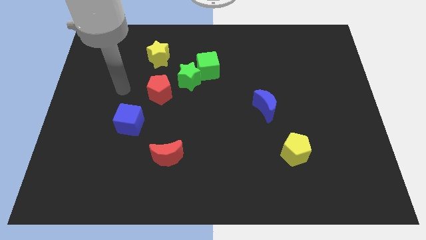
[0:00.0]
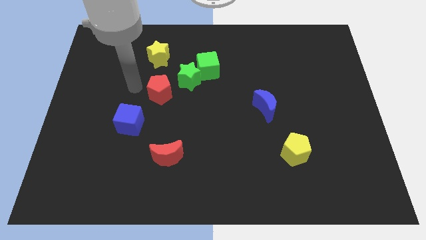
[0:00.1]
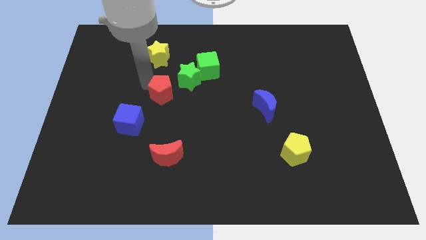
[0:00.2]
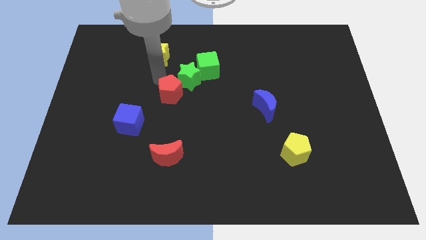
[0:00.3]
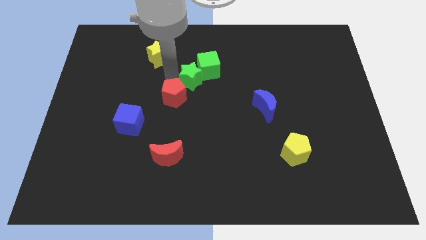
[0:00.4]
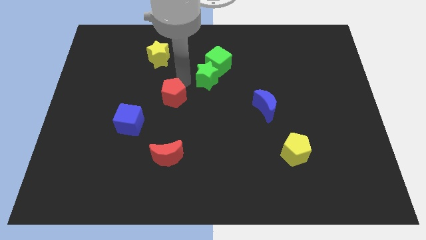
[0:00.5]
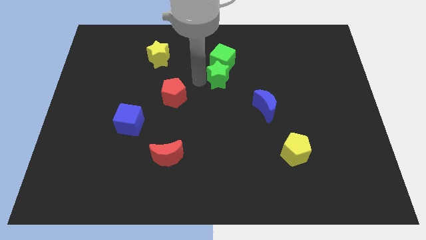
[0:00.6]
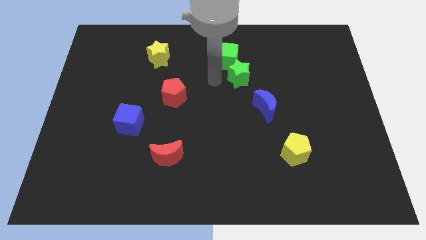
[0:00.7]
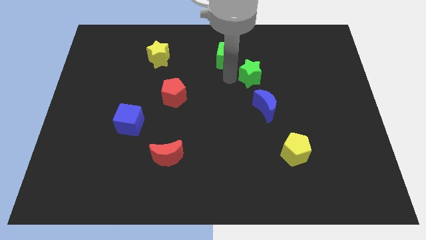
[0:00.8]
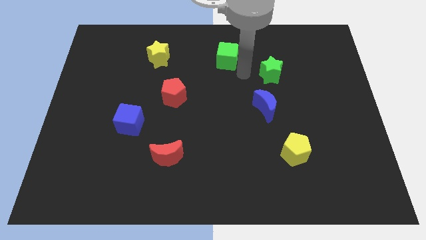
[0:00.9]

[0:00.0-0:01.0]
move the green cube away from the green star

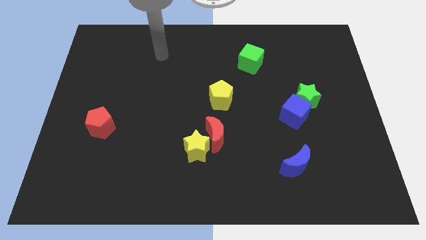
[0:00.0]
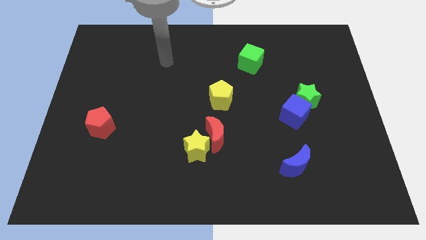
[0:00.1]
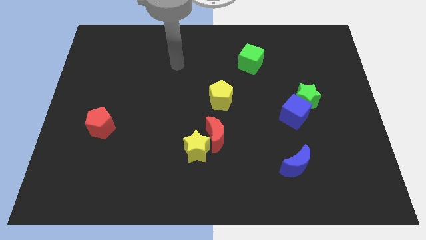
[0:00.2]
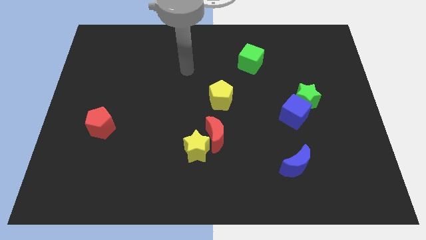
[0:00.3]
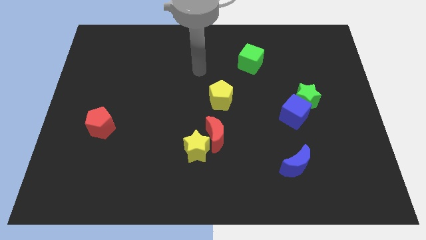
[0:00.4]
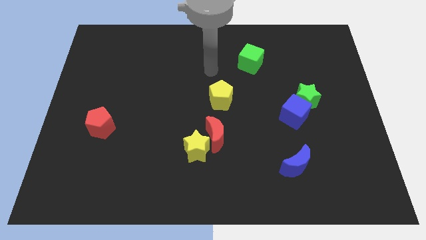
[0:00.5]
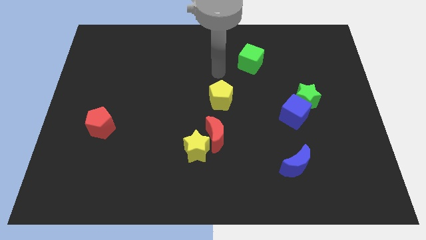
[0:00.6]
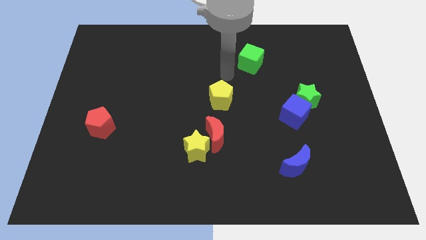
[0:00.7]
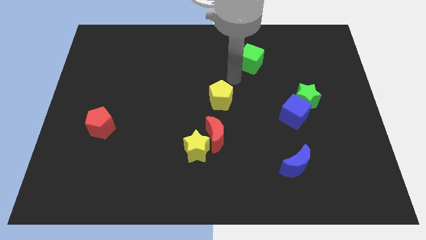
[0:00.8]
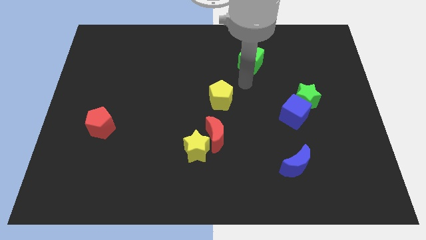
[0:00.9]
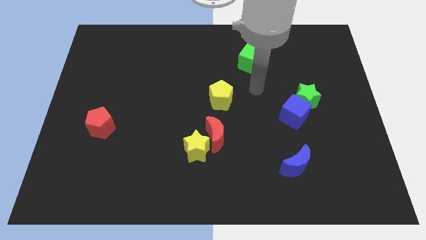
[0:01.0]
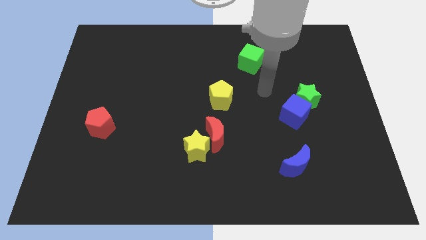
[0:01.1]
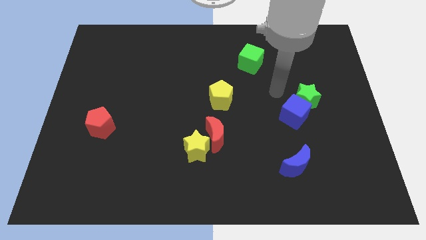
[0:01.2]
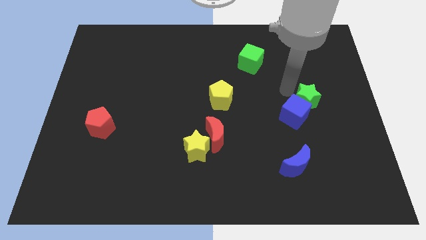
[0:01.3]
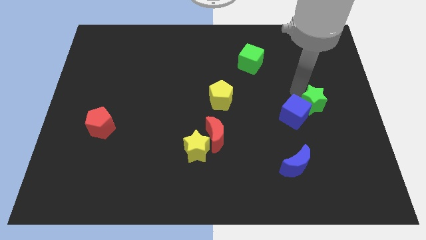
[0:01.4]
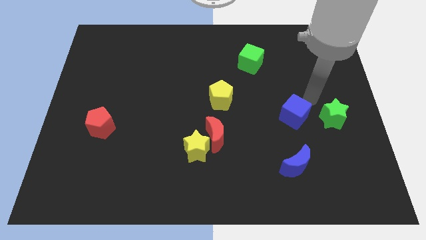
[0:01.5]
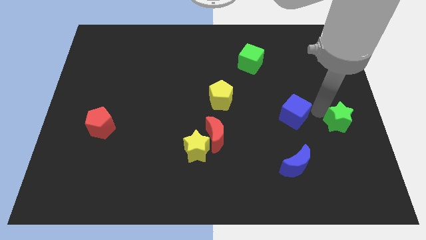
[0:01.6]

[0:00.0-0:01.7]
move the blue cube away from the green star

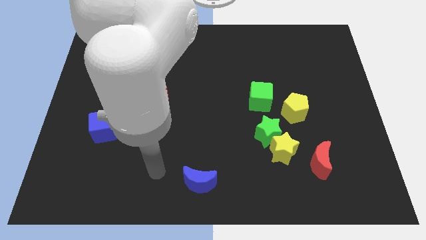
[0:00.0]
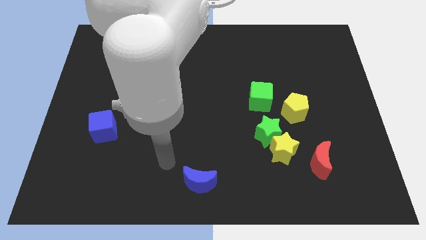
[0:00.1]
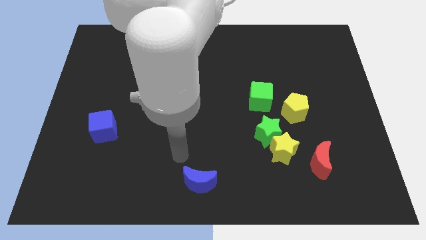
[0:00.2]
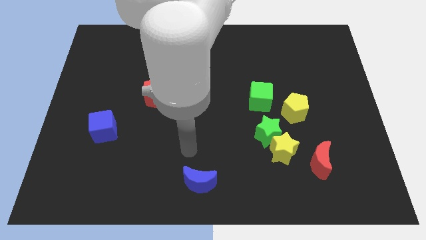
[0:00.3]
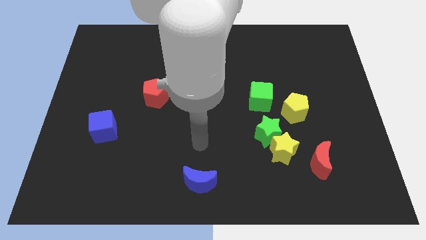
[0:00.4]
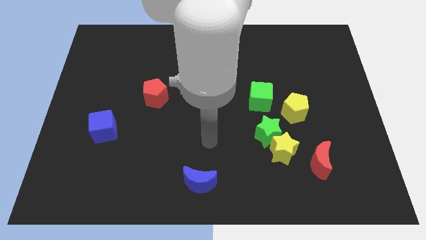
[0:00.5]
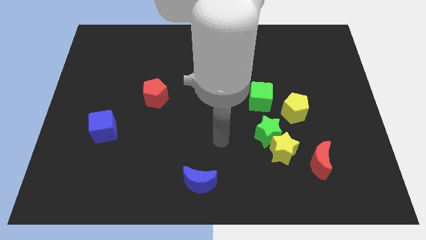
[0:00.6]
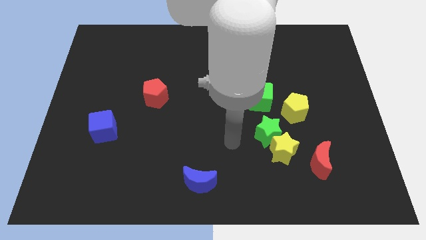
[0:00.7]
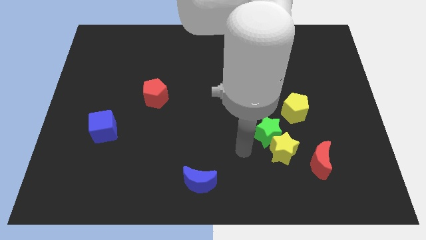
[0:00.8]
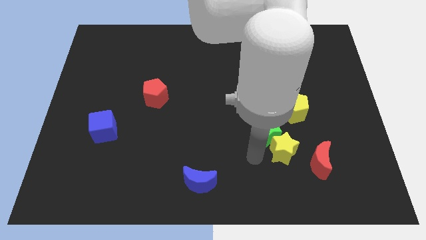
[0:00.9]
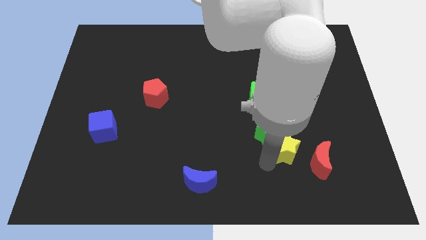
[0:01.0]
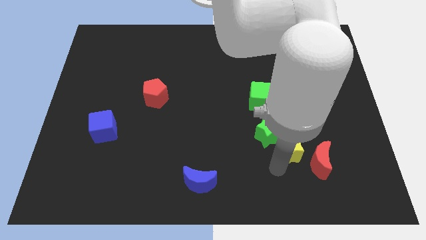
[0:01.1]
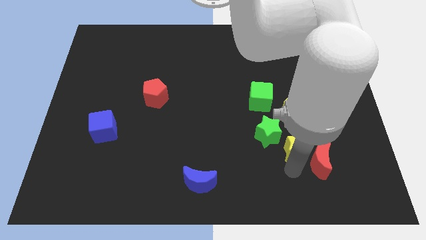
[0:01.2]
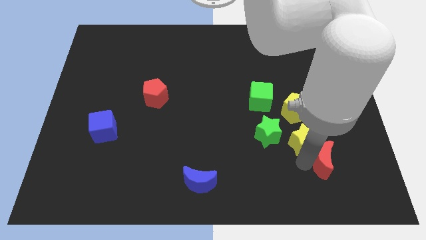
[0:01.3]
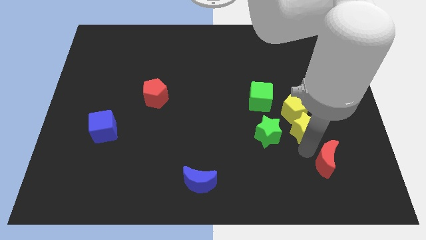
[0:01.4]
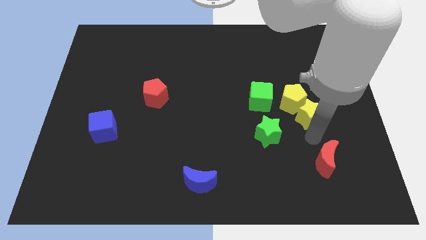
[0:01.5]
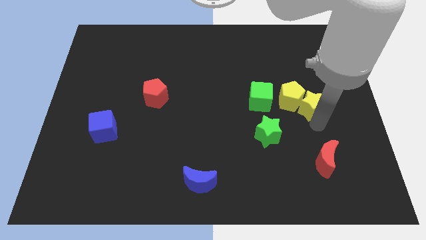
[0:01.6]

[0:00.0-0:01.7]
separate the yellow star from the green star and red moon

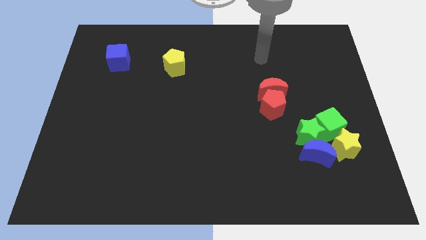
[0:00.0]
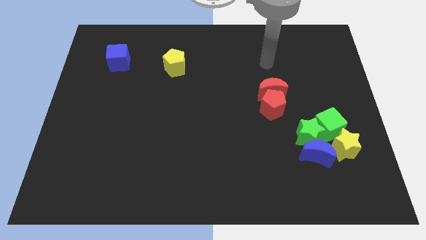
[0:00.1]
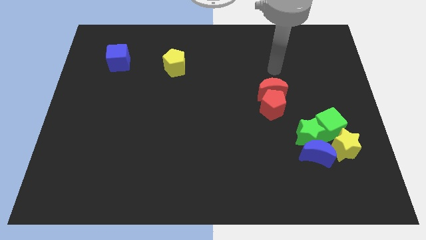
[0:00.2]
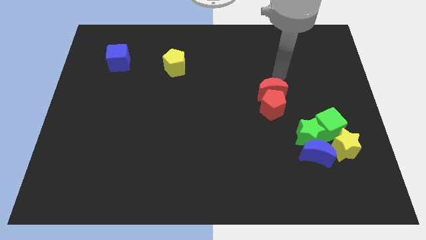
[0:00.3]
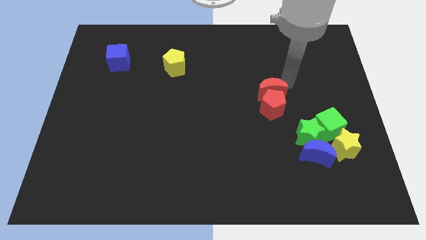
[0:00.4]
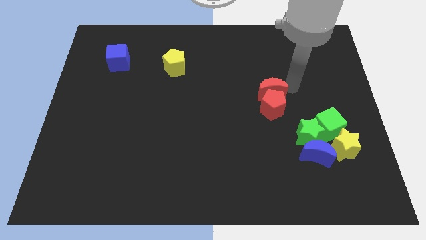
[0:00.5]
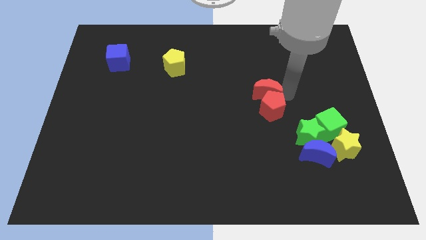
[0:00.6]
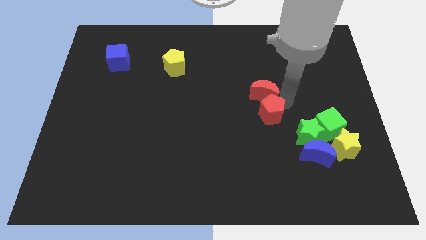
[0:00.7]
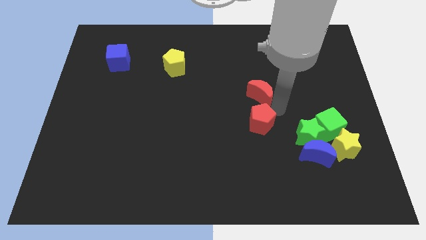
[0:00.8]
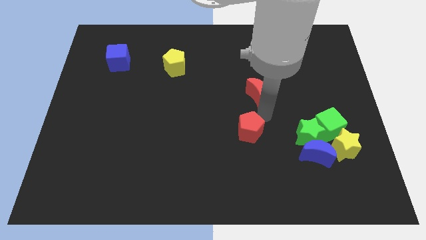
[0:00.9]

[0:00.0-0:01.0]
pull the red moon apart from the red pentagon

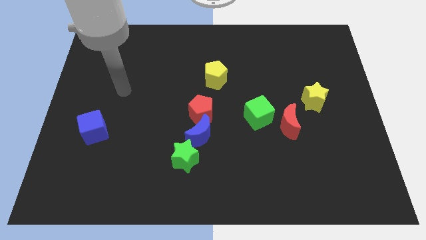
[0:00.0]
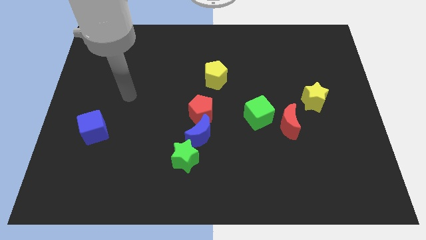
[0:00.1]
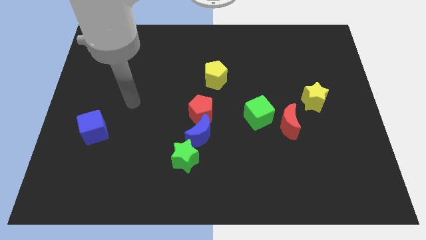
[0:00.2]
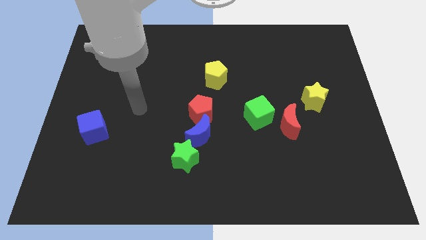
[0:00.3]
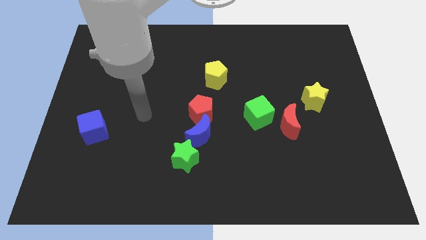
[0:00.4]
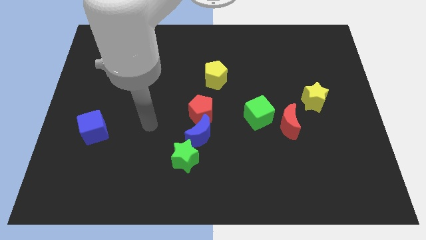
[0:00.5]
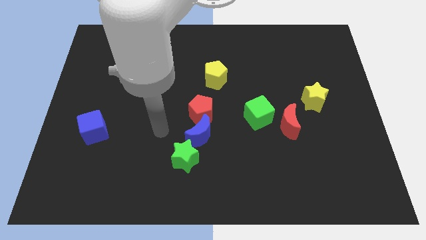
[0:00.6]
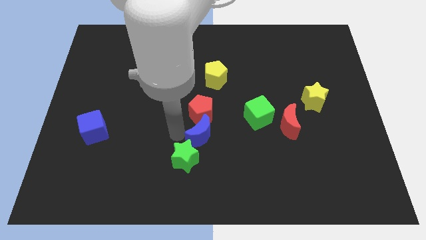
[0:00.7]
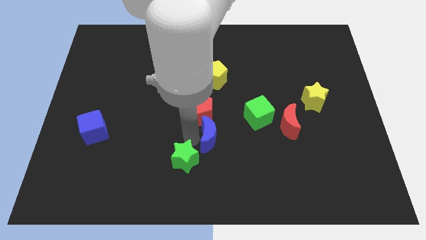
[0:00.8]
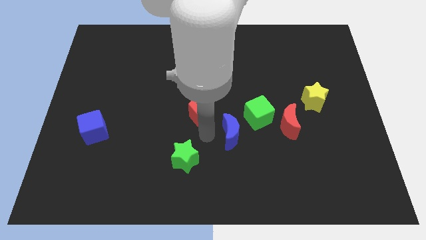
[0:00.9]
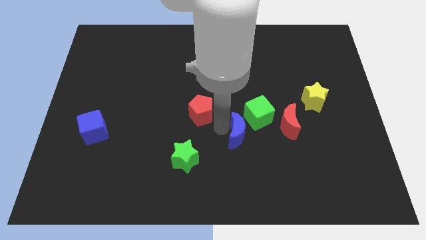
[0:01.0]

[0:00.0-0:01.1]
separate the red pentagon from the blue moon

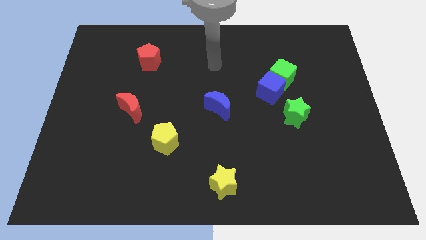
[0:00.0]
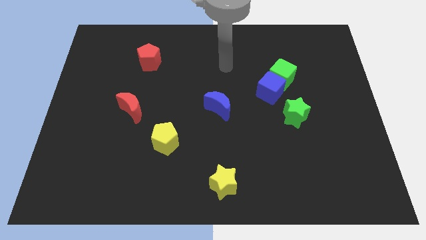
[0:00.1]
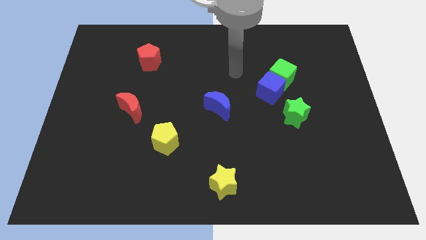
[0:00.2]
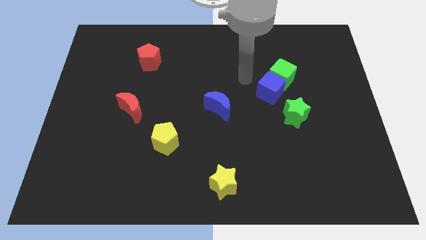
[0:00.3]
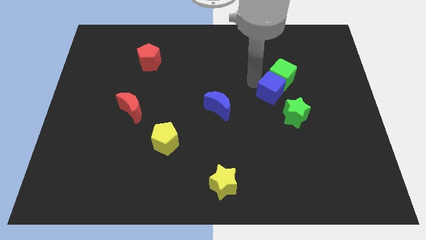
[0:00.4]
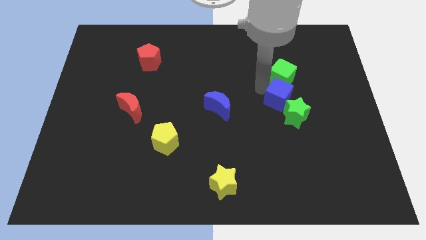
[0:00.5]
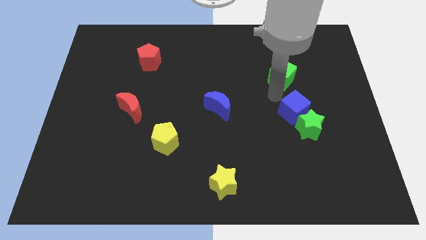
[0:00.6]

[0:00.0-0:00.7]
pull the green cube apart from the blue cube

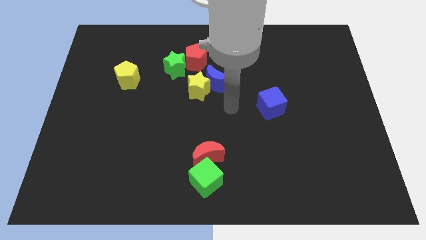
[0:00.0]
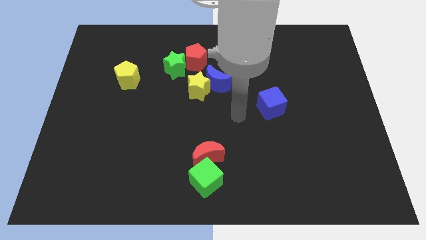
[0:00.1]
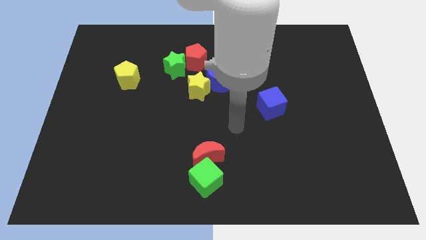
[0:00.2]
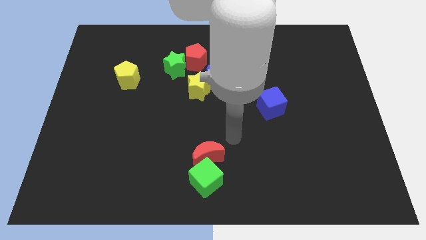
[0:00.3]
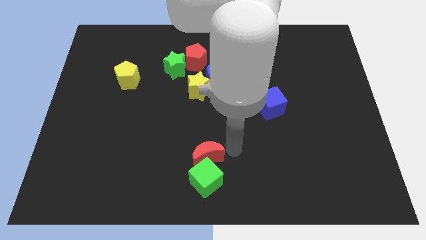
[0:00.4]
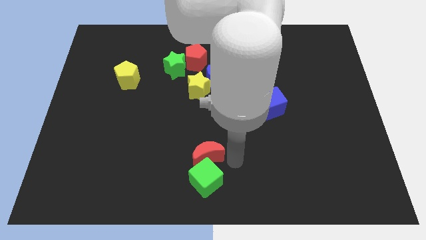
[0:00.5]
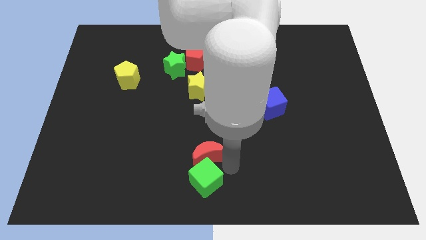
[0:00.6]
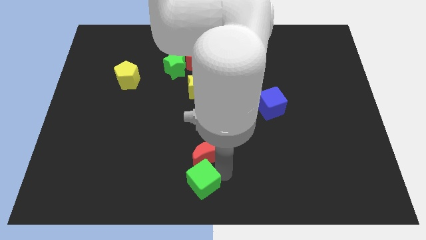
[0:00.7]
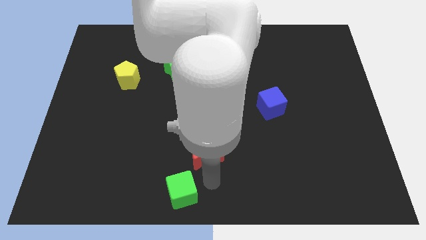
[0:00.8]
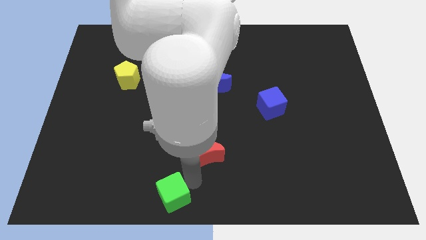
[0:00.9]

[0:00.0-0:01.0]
pull the red moon apart from the green cube

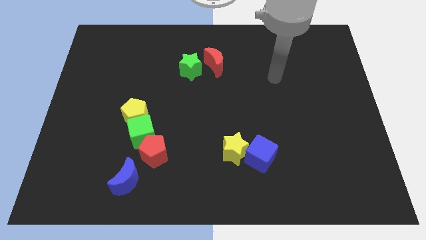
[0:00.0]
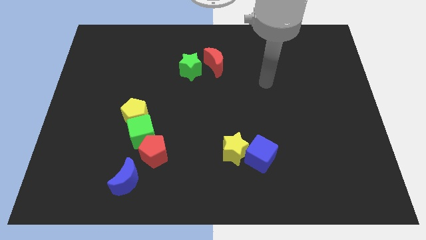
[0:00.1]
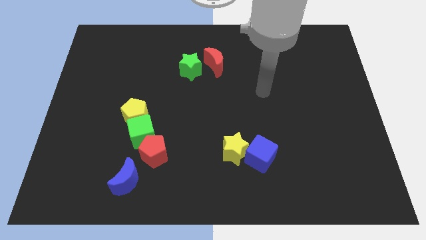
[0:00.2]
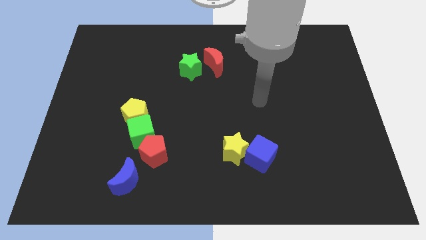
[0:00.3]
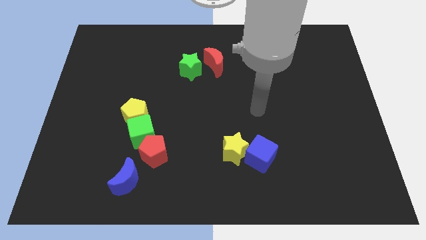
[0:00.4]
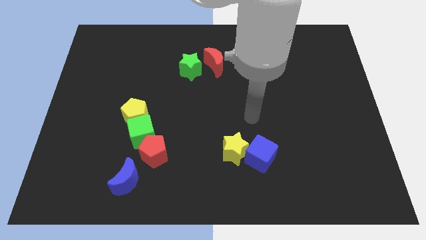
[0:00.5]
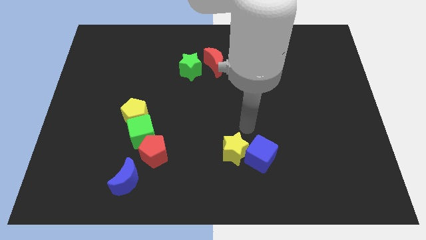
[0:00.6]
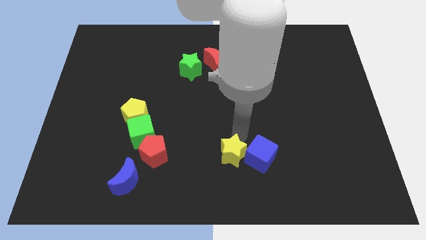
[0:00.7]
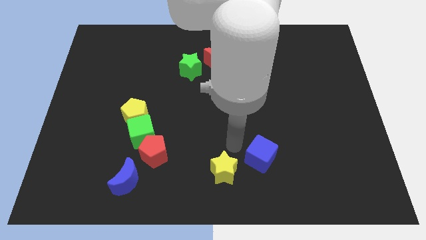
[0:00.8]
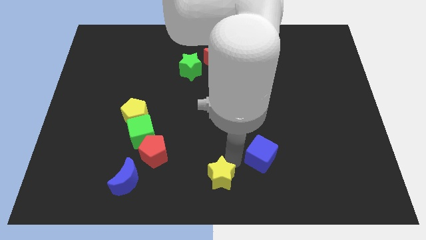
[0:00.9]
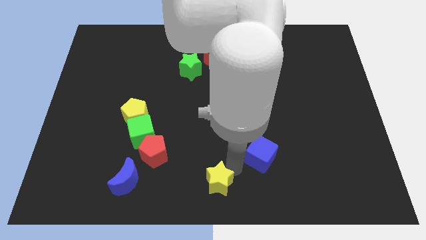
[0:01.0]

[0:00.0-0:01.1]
pull the blue cube apart from the yellow star
